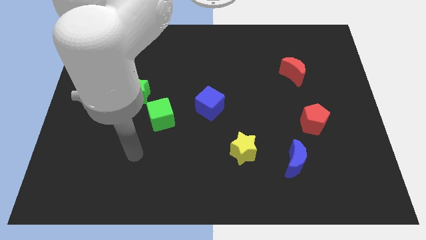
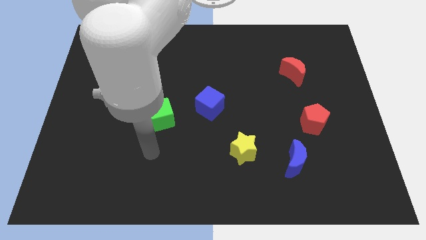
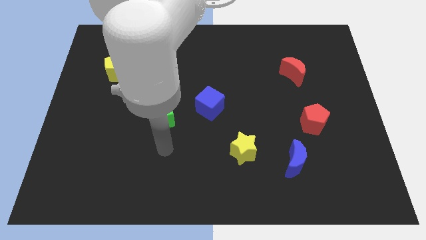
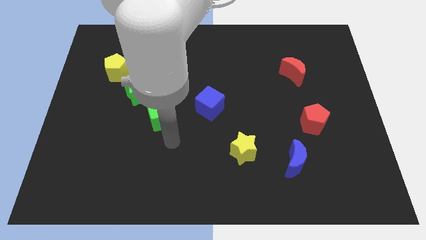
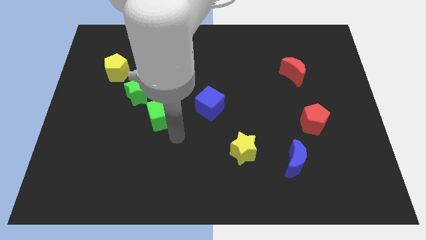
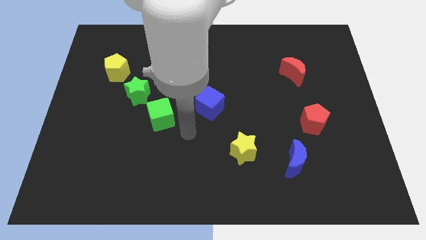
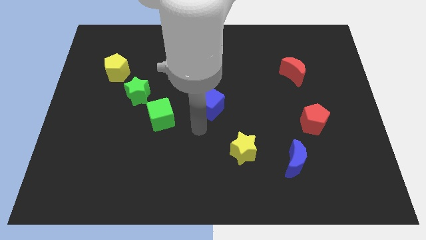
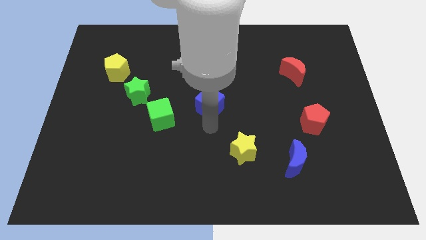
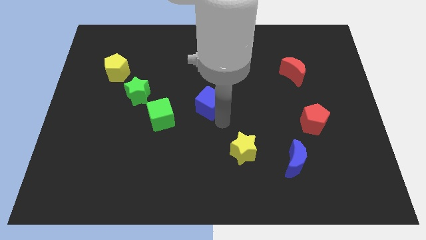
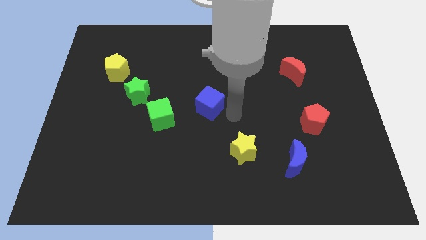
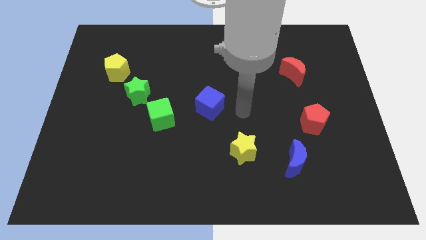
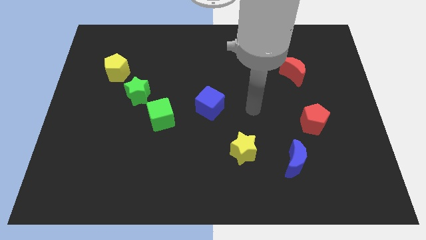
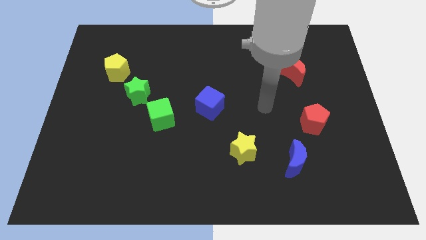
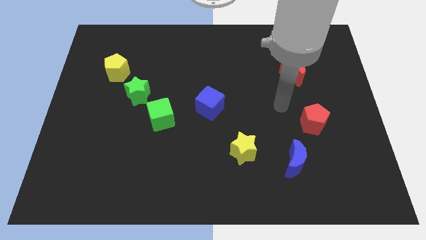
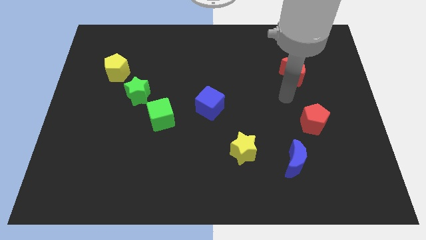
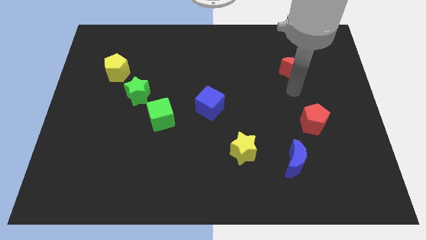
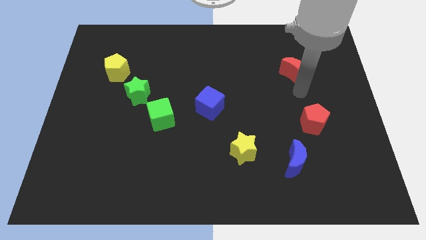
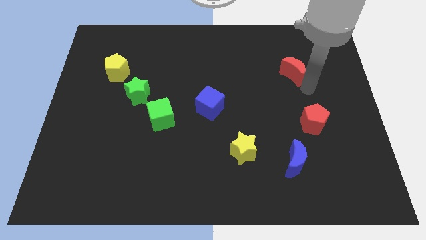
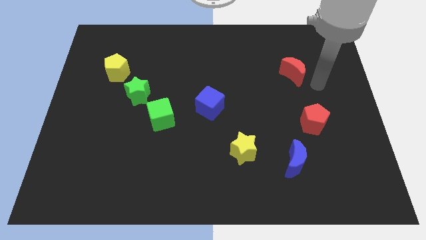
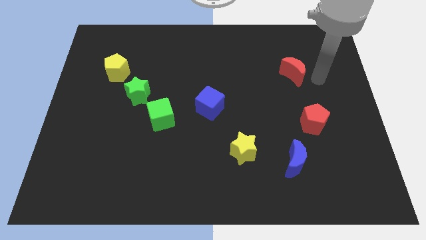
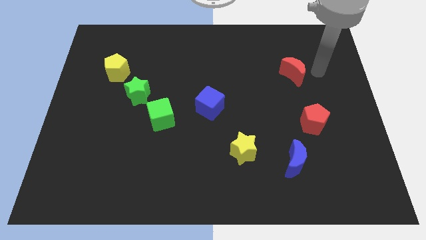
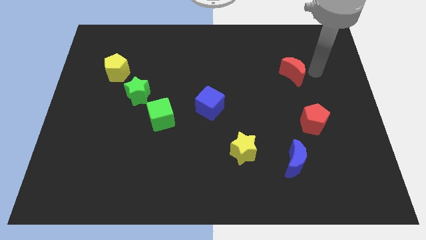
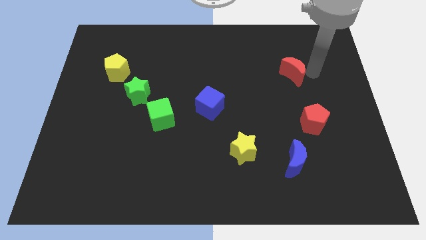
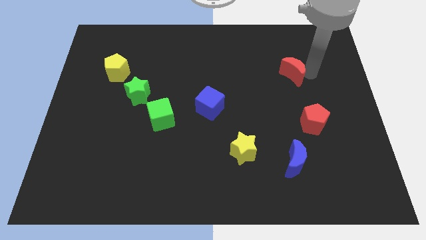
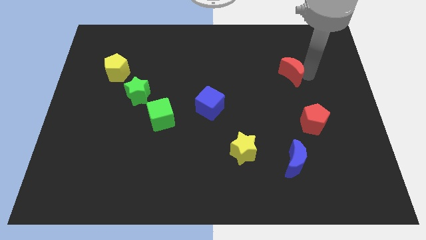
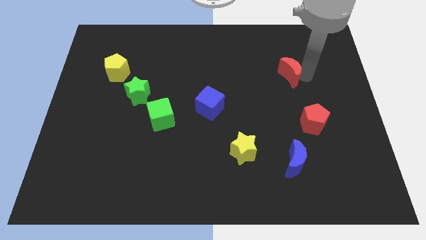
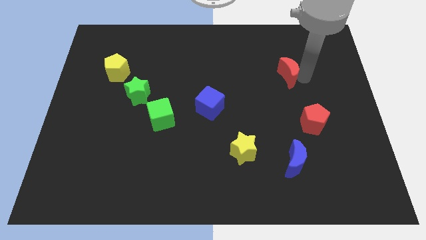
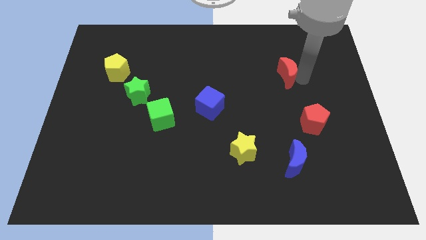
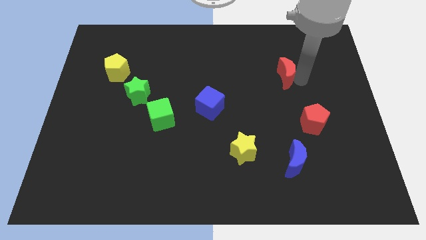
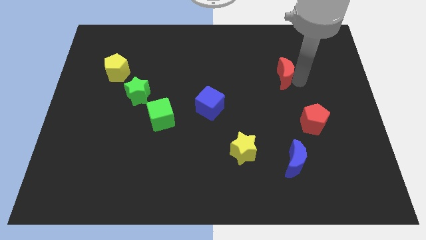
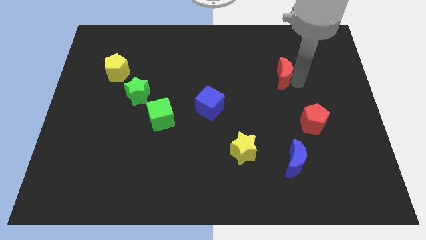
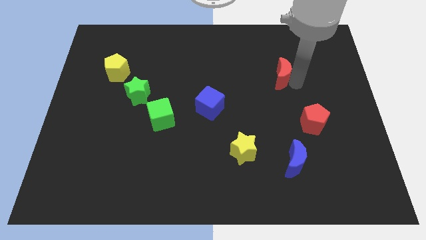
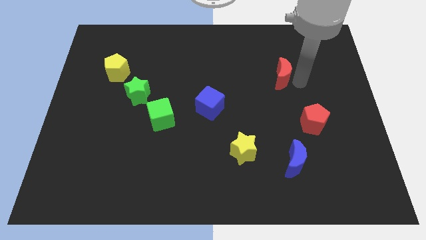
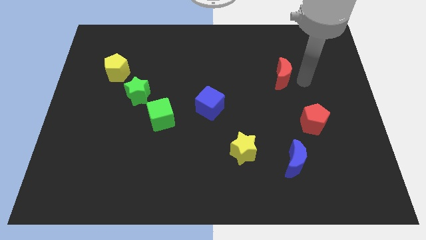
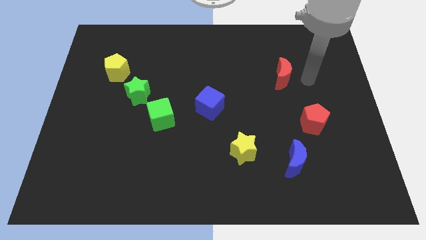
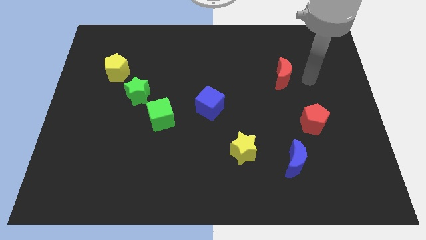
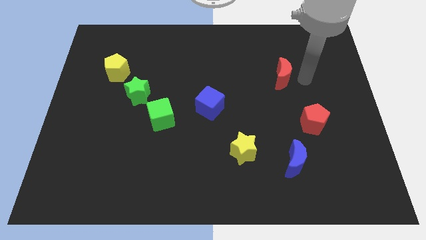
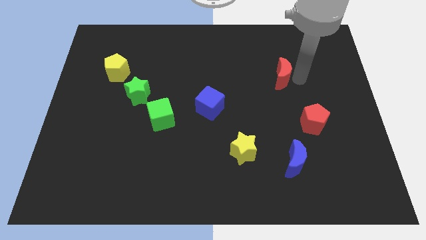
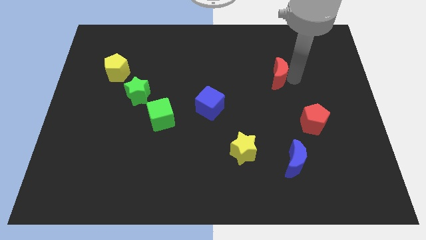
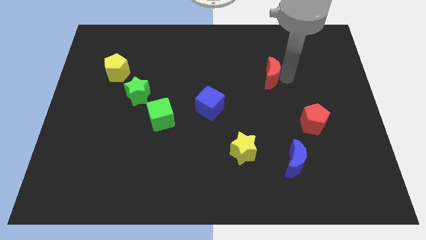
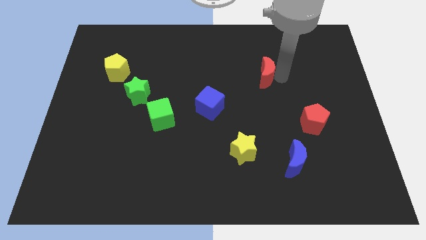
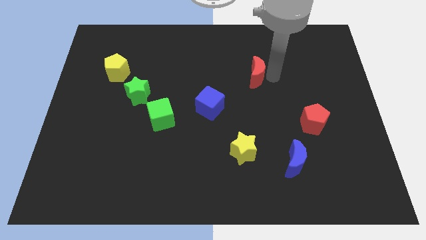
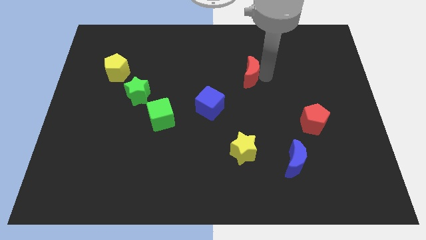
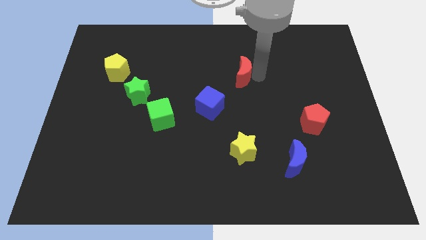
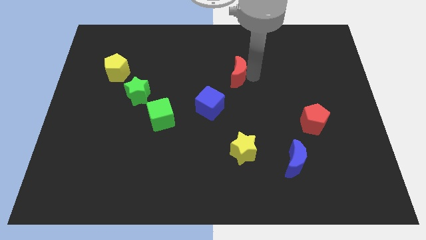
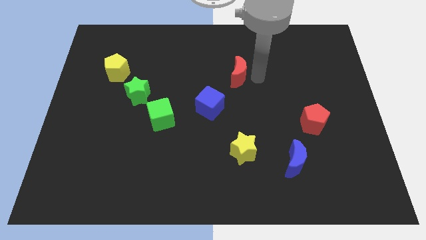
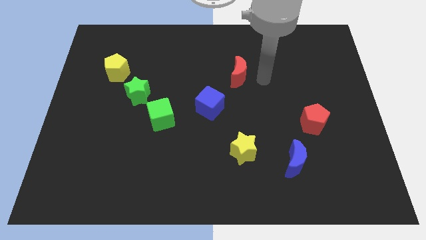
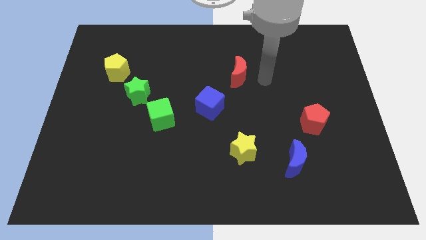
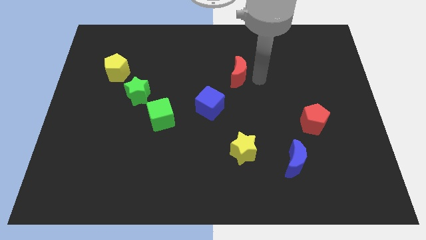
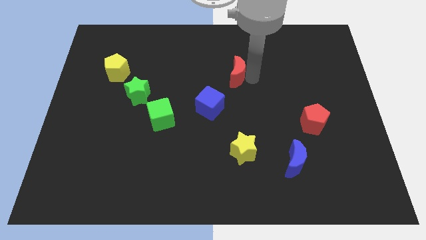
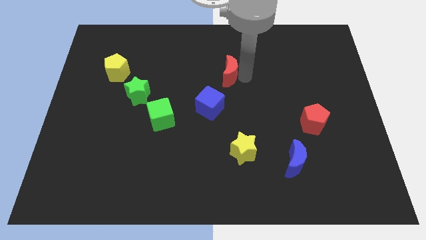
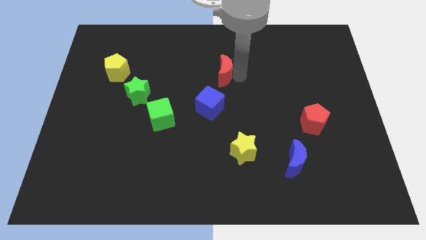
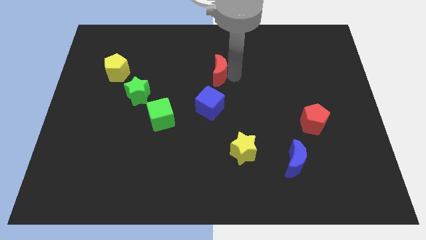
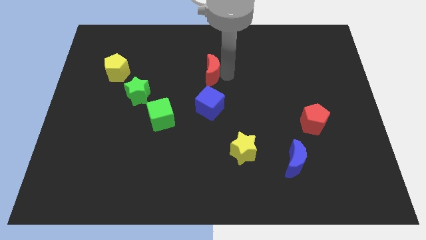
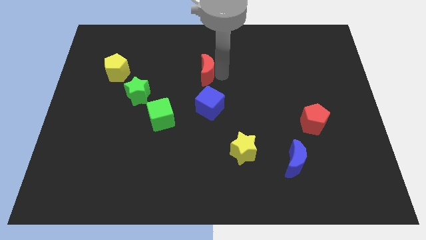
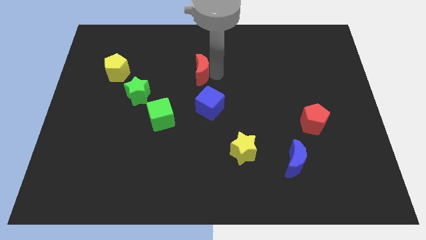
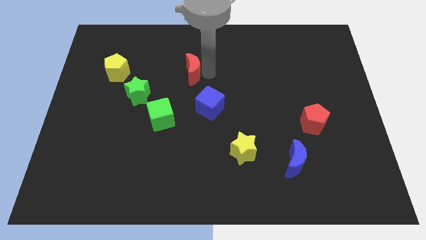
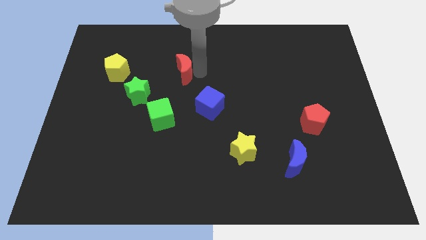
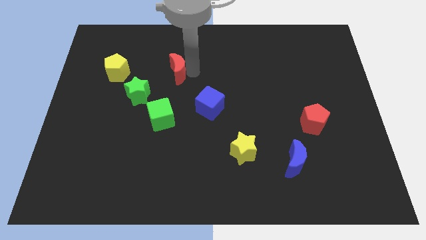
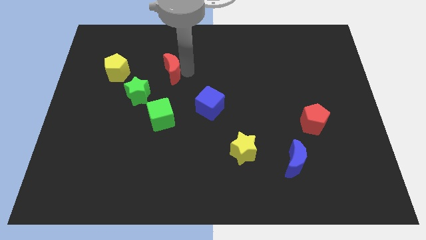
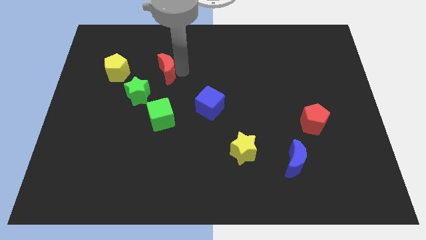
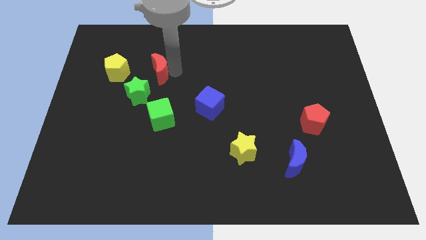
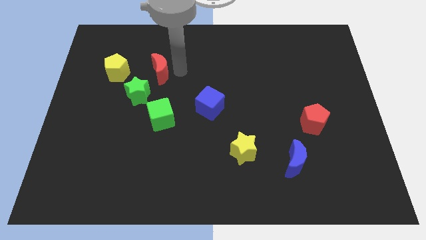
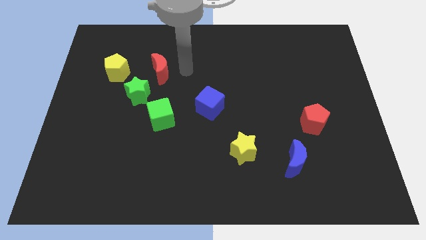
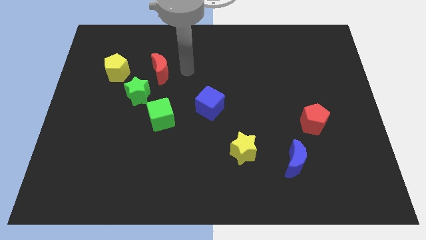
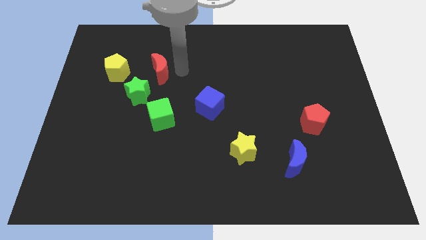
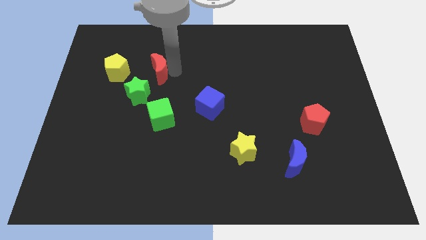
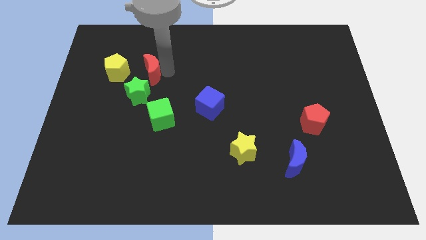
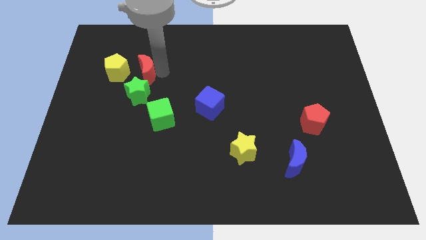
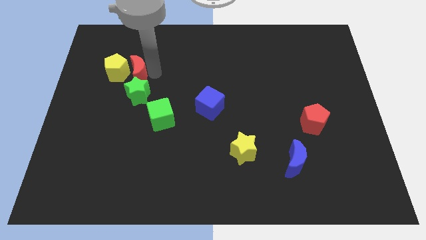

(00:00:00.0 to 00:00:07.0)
push the red moon towards the yellow pentagon
